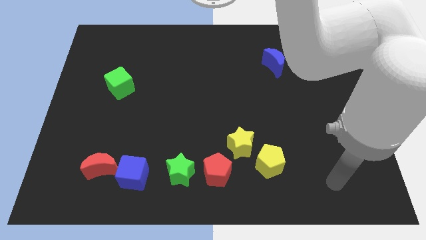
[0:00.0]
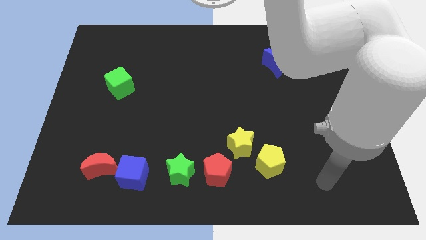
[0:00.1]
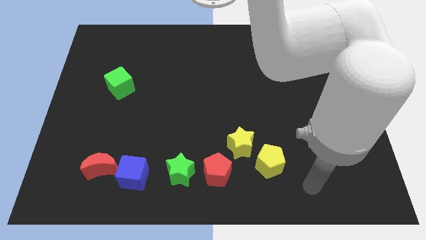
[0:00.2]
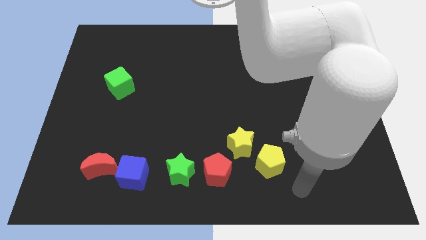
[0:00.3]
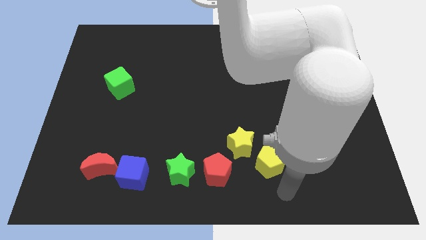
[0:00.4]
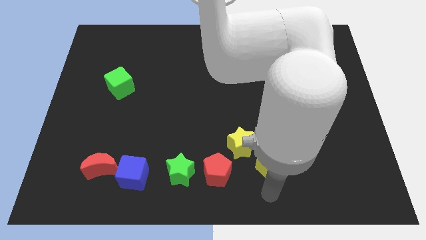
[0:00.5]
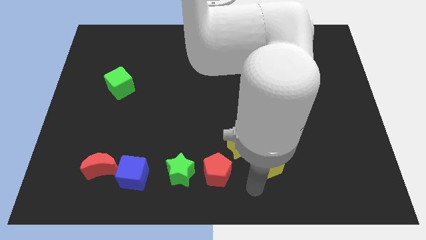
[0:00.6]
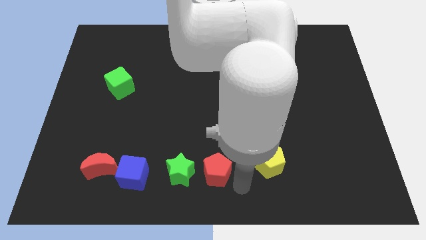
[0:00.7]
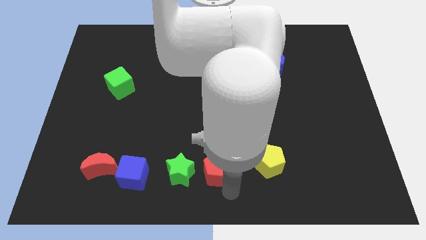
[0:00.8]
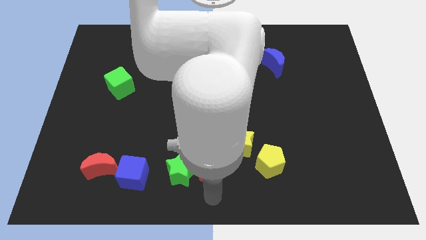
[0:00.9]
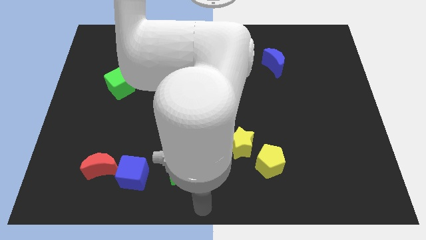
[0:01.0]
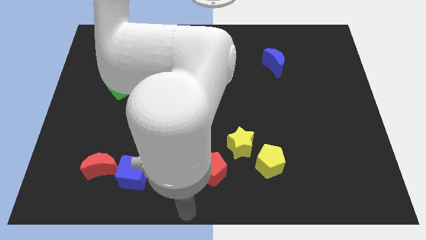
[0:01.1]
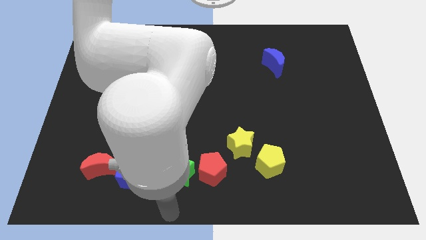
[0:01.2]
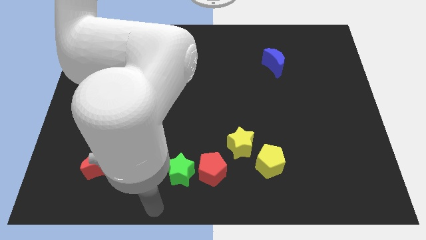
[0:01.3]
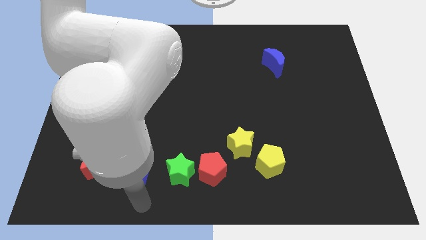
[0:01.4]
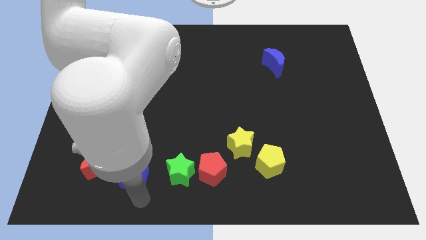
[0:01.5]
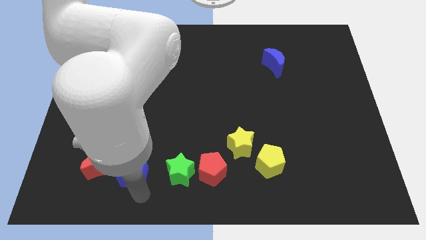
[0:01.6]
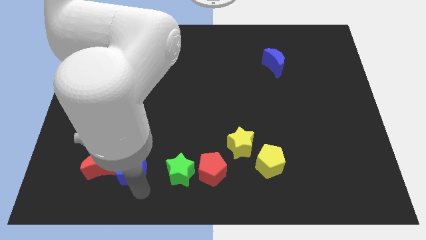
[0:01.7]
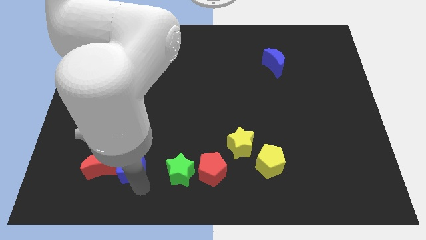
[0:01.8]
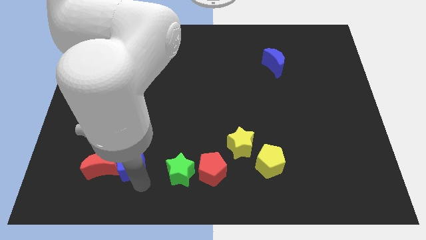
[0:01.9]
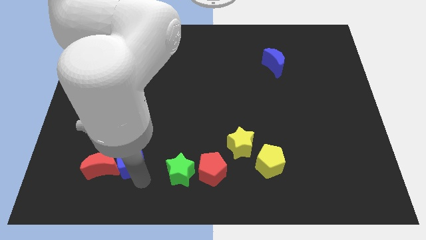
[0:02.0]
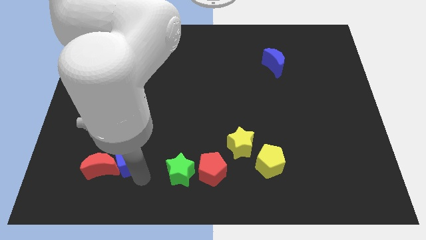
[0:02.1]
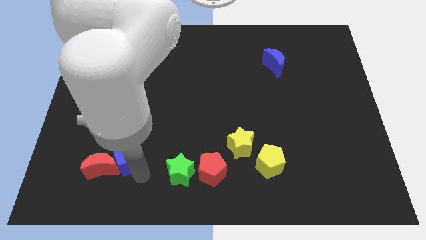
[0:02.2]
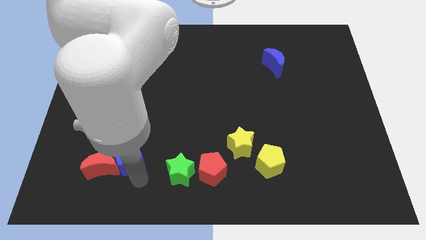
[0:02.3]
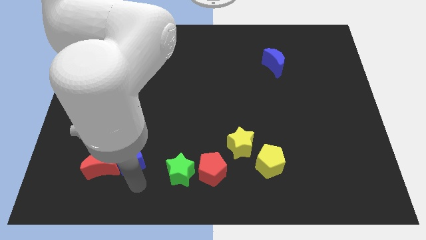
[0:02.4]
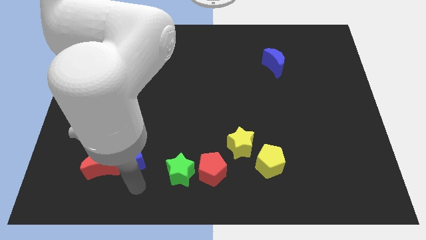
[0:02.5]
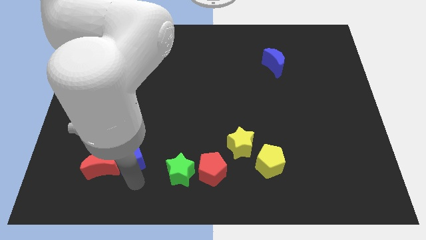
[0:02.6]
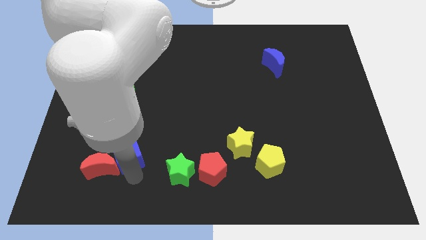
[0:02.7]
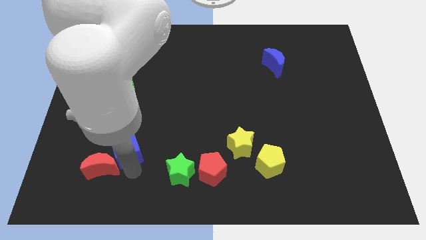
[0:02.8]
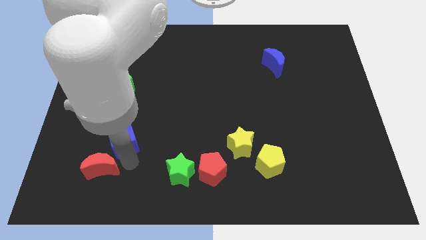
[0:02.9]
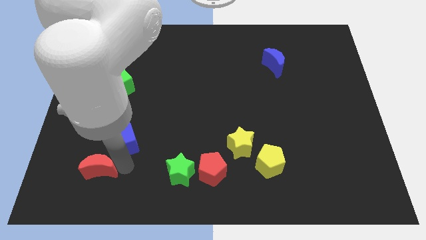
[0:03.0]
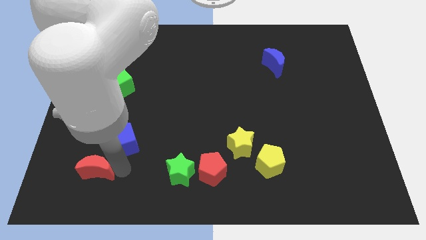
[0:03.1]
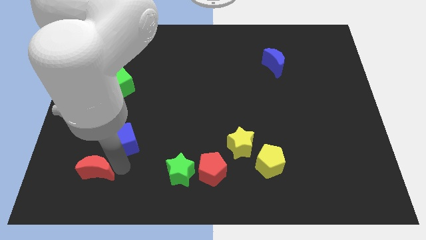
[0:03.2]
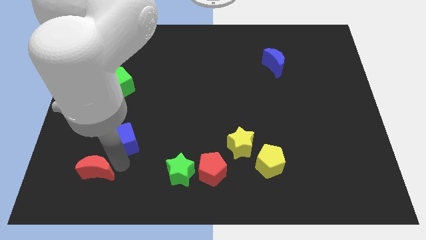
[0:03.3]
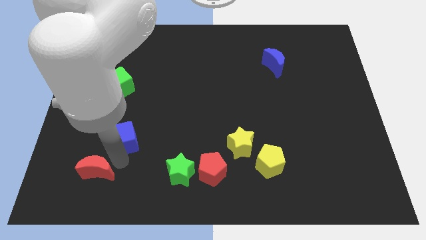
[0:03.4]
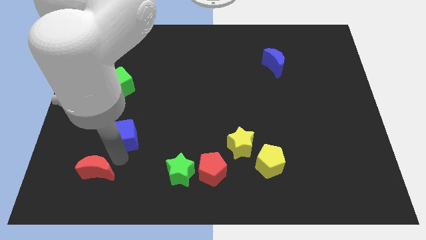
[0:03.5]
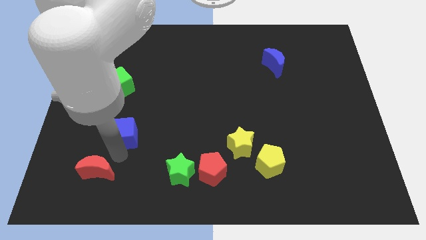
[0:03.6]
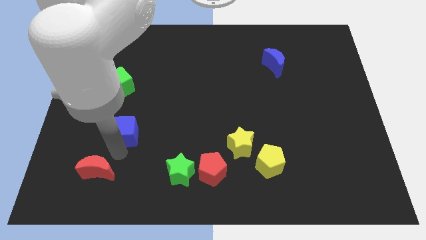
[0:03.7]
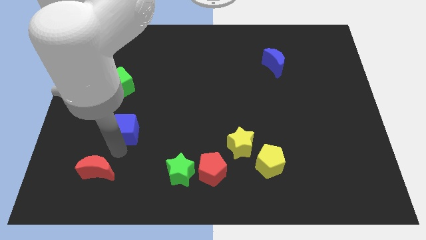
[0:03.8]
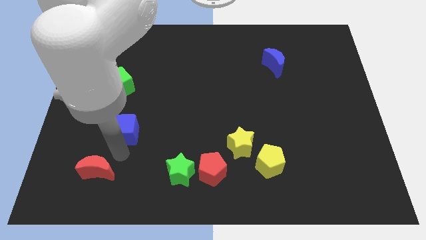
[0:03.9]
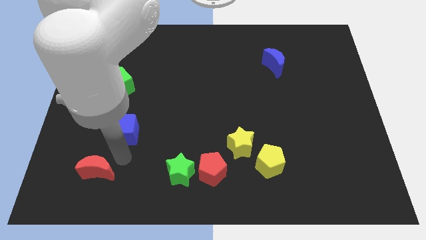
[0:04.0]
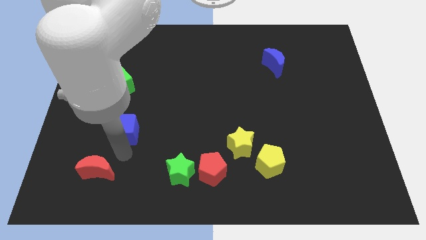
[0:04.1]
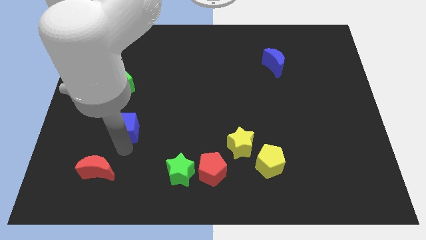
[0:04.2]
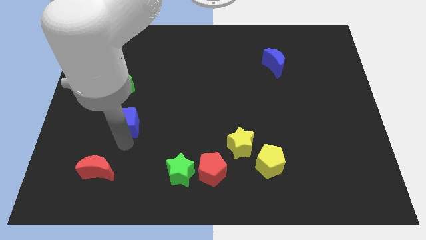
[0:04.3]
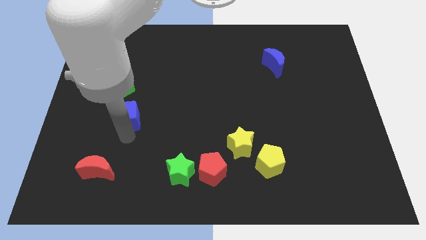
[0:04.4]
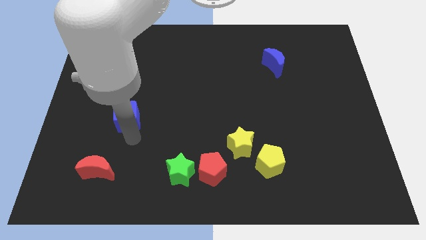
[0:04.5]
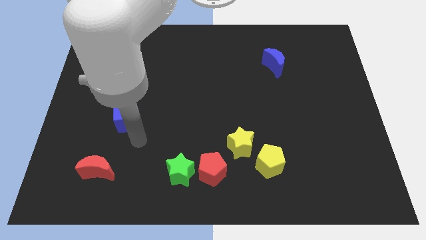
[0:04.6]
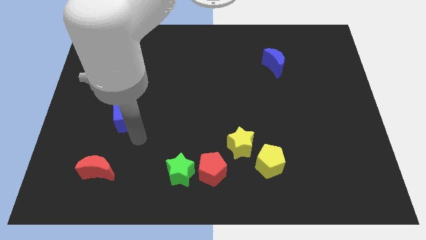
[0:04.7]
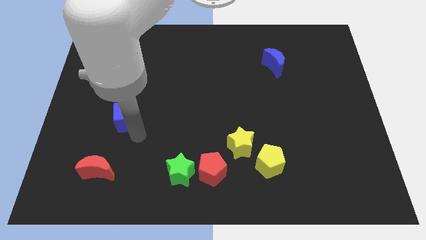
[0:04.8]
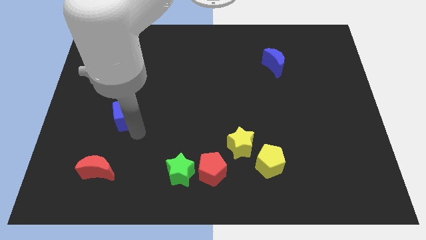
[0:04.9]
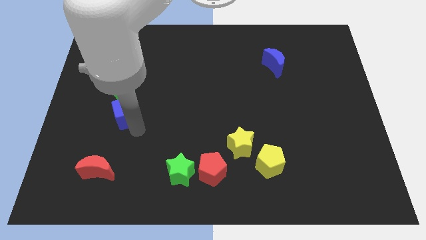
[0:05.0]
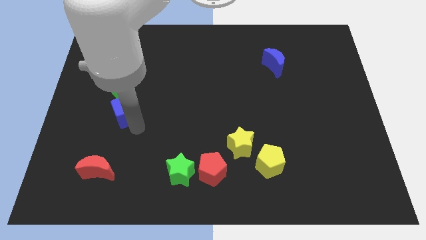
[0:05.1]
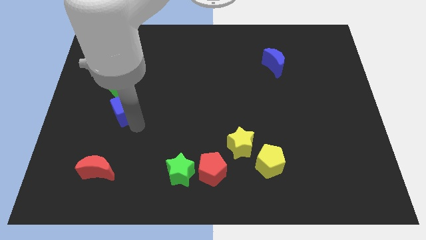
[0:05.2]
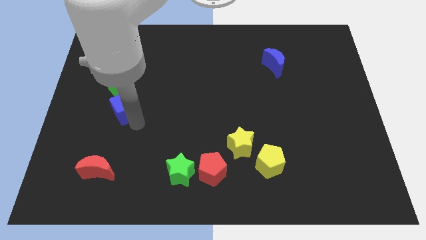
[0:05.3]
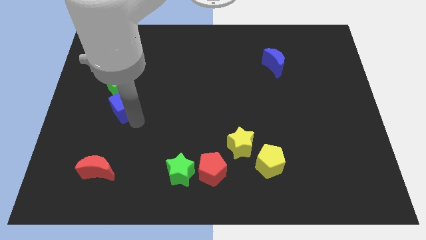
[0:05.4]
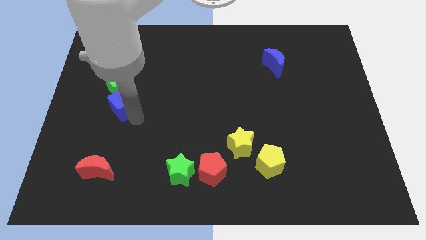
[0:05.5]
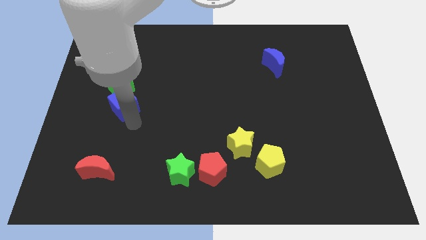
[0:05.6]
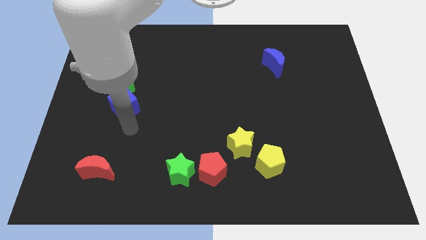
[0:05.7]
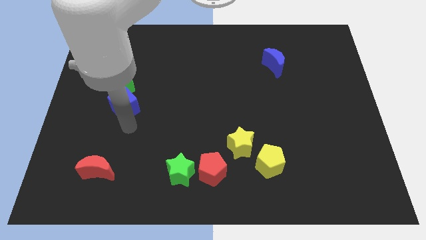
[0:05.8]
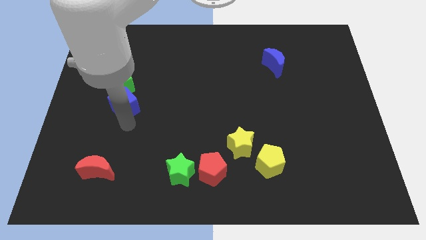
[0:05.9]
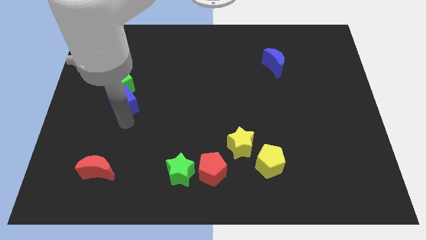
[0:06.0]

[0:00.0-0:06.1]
slide the blue cube towards the green cube

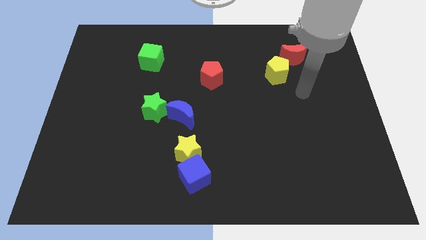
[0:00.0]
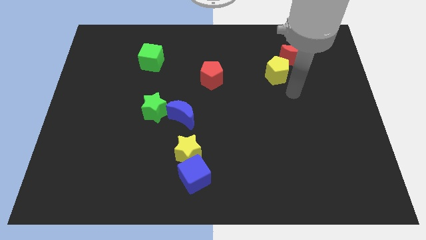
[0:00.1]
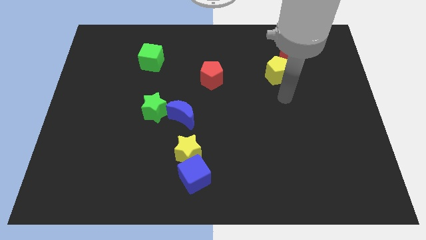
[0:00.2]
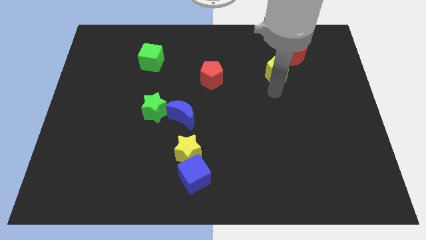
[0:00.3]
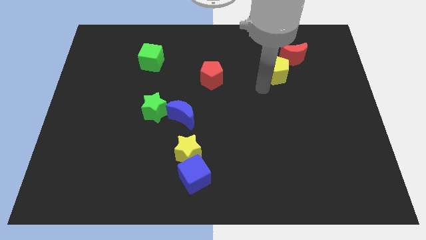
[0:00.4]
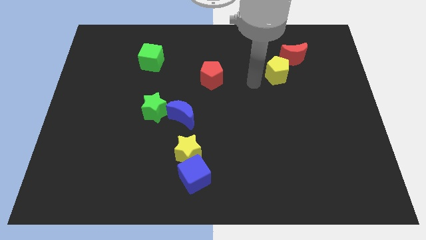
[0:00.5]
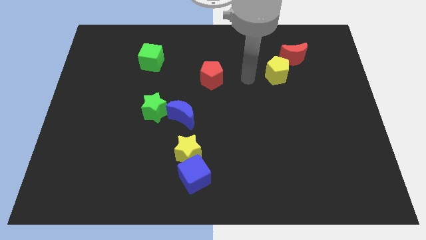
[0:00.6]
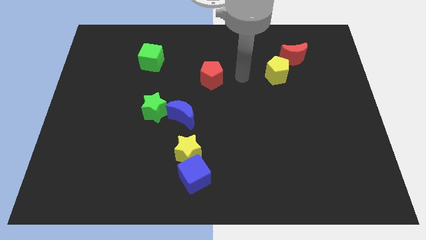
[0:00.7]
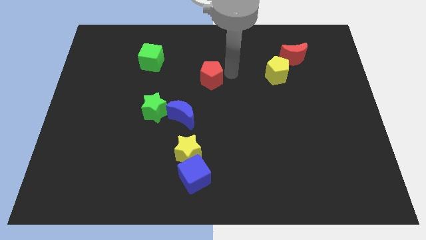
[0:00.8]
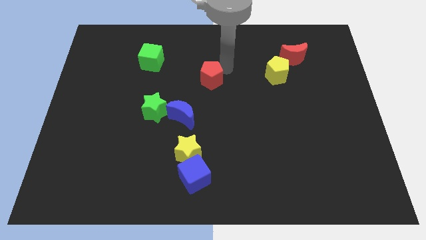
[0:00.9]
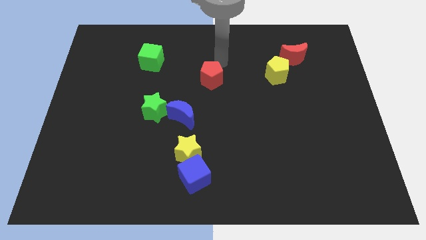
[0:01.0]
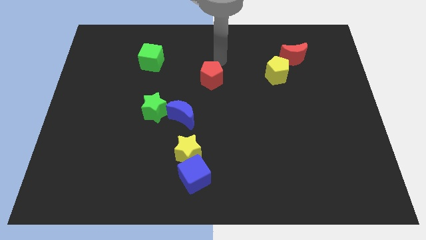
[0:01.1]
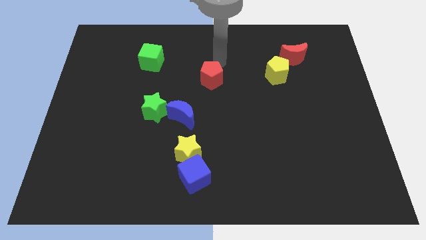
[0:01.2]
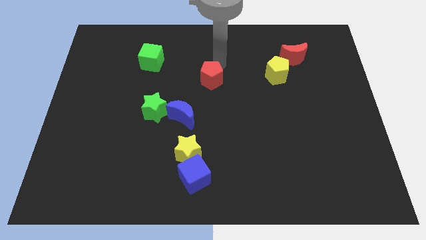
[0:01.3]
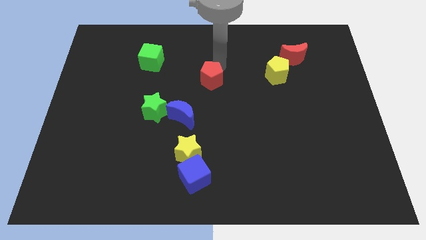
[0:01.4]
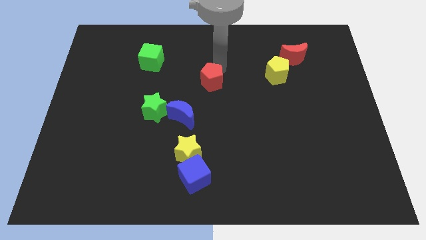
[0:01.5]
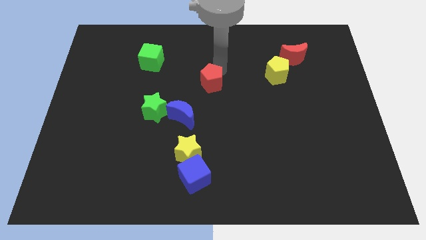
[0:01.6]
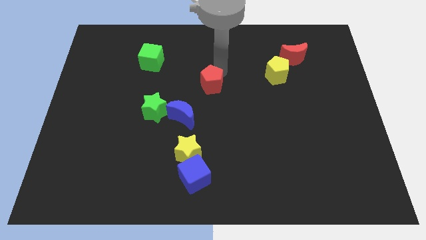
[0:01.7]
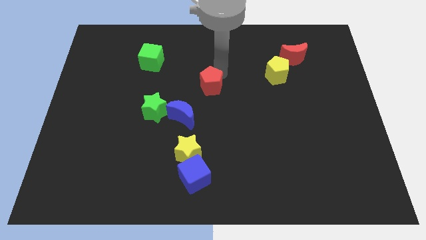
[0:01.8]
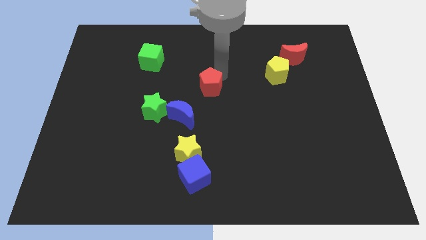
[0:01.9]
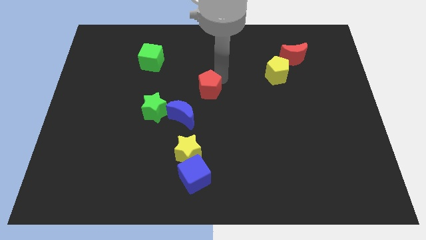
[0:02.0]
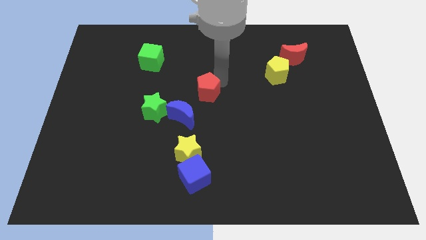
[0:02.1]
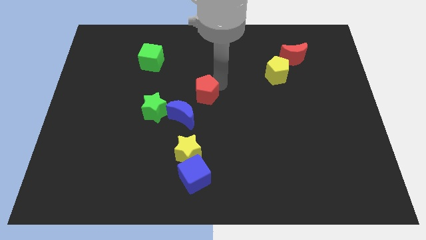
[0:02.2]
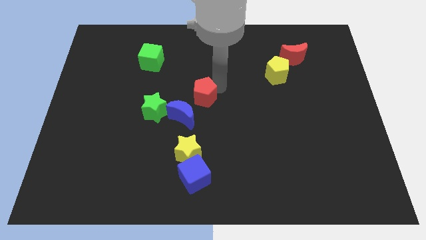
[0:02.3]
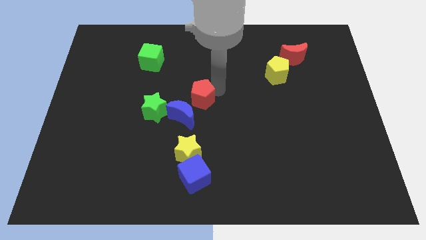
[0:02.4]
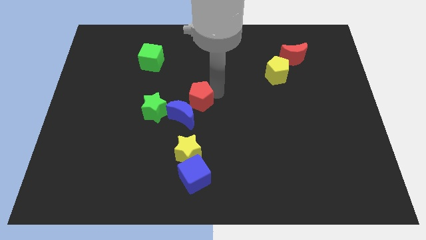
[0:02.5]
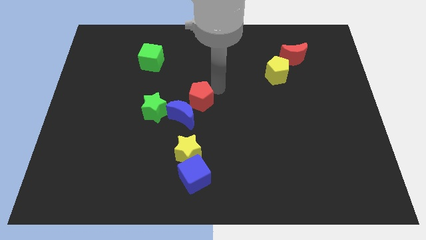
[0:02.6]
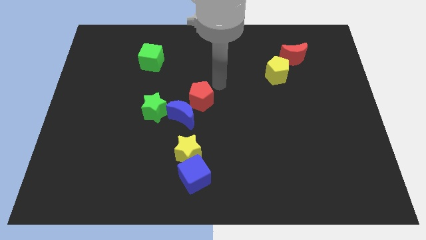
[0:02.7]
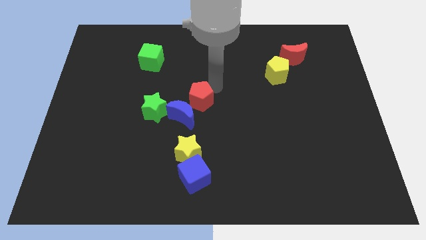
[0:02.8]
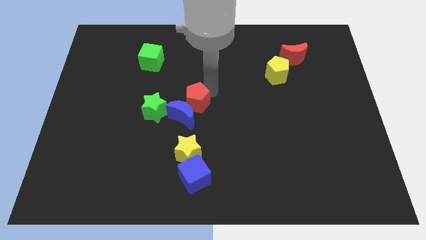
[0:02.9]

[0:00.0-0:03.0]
move the red pentagon next to the blue moon
